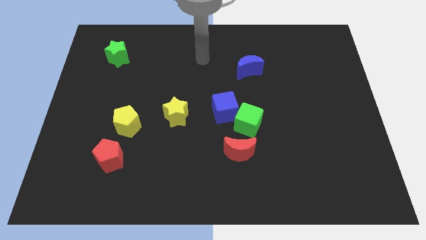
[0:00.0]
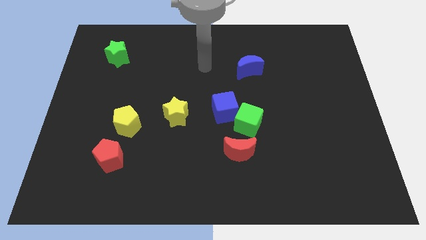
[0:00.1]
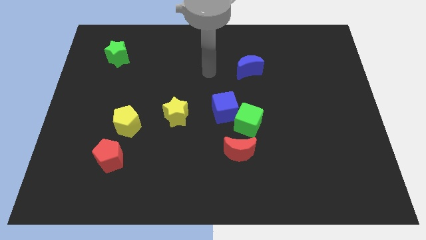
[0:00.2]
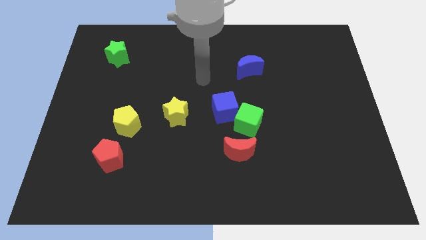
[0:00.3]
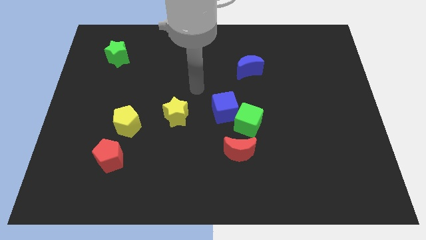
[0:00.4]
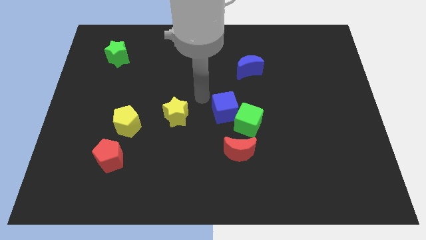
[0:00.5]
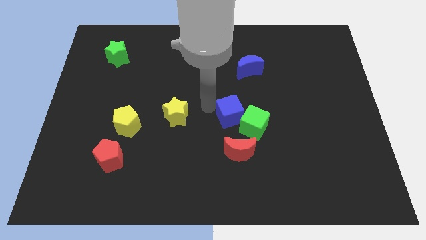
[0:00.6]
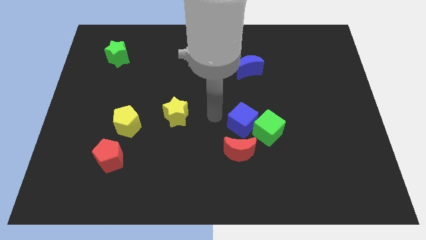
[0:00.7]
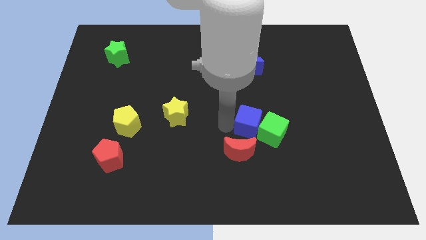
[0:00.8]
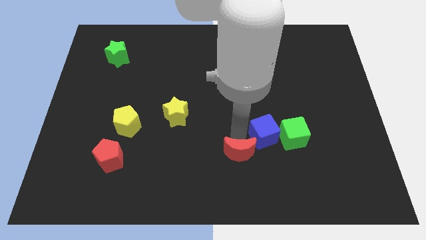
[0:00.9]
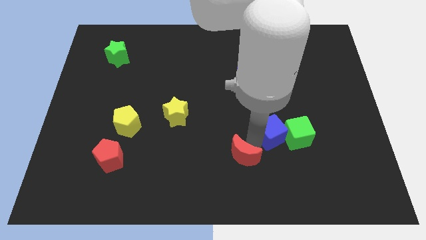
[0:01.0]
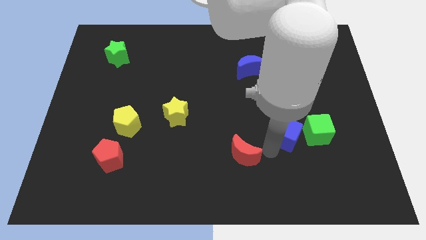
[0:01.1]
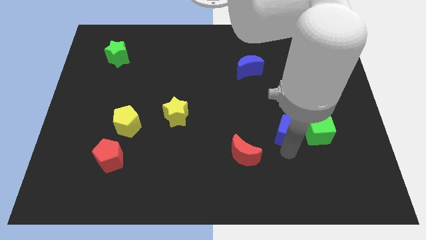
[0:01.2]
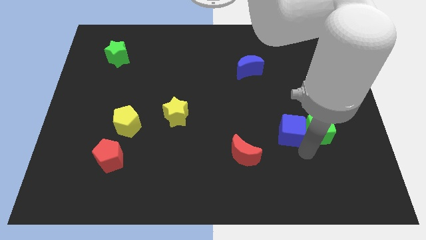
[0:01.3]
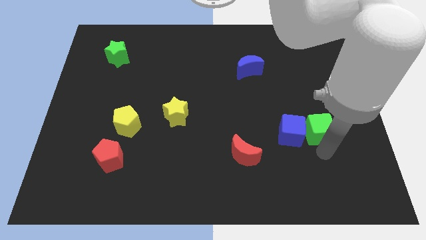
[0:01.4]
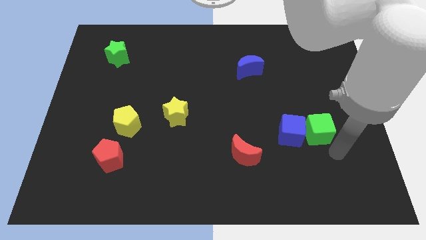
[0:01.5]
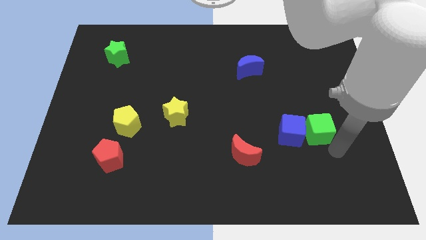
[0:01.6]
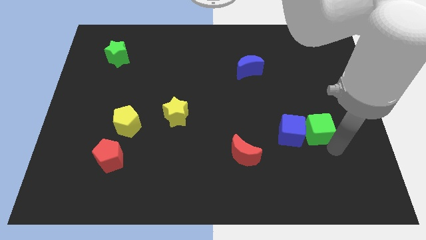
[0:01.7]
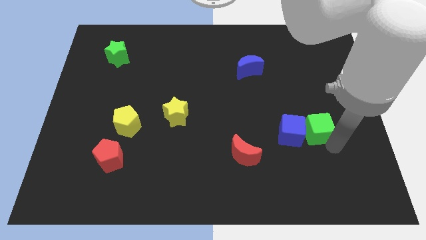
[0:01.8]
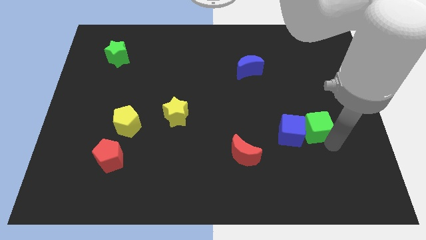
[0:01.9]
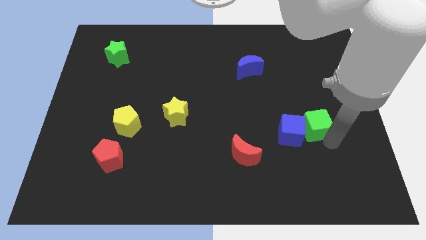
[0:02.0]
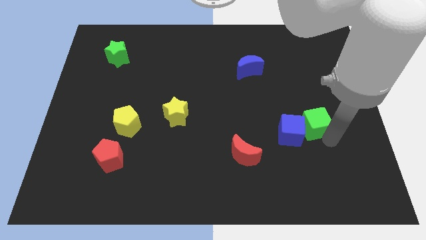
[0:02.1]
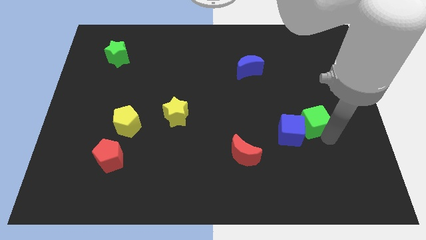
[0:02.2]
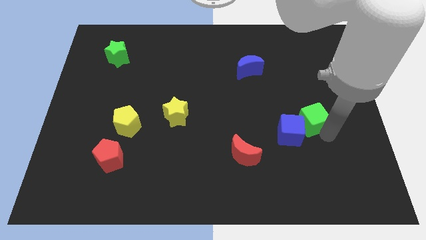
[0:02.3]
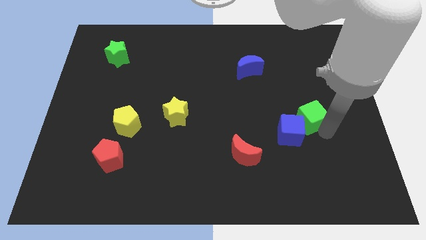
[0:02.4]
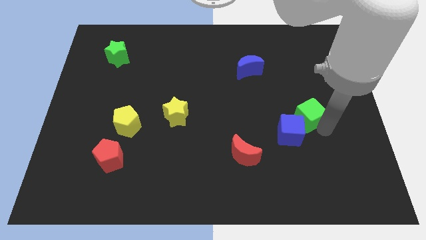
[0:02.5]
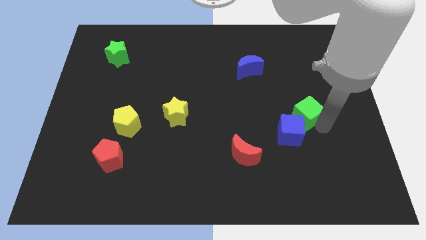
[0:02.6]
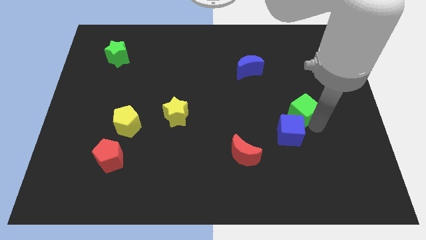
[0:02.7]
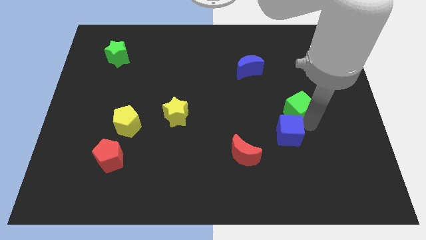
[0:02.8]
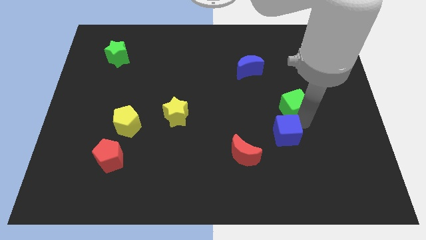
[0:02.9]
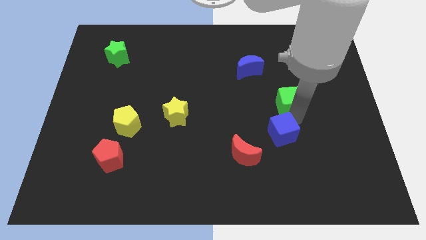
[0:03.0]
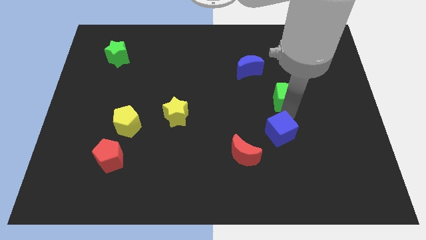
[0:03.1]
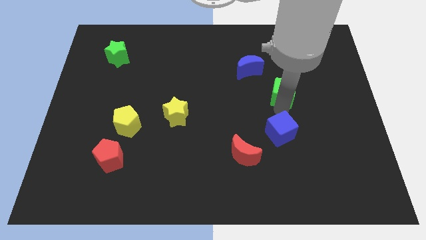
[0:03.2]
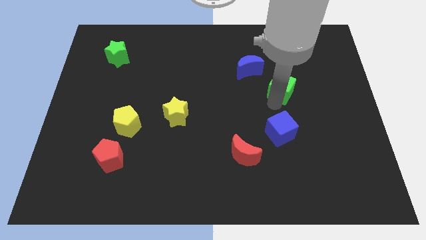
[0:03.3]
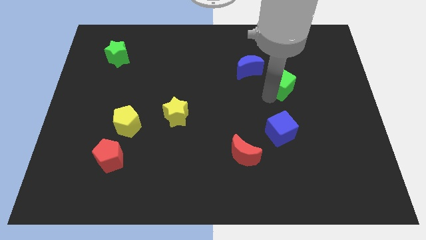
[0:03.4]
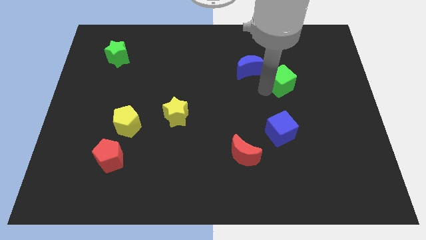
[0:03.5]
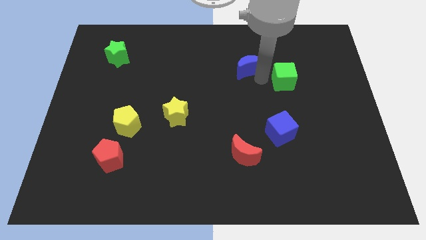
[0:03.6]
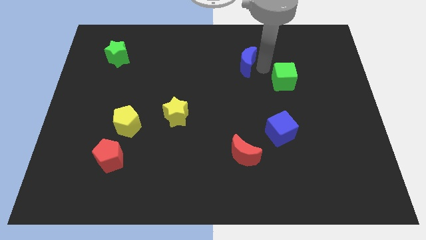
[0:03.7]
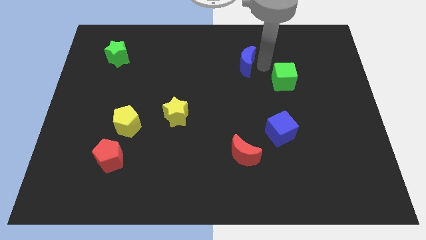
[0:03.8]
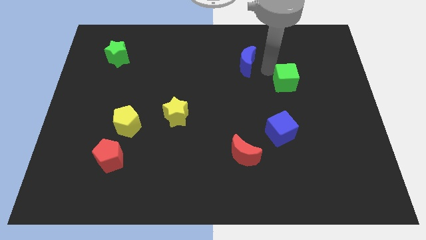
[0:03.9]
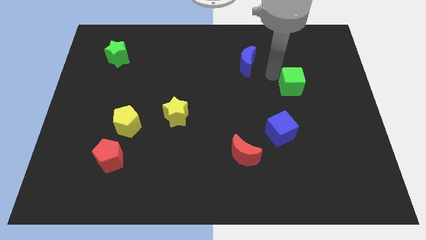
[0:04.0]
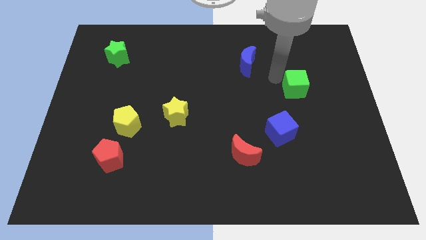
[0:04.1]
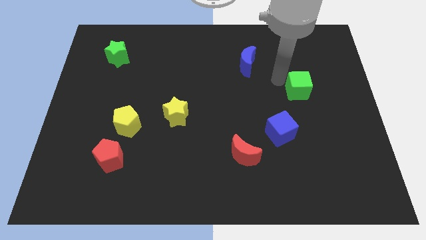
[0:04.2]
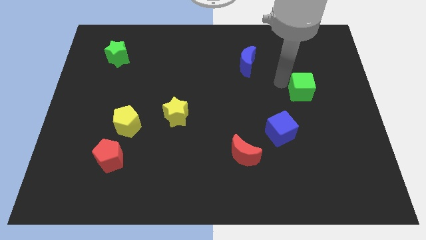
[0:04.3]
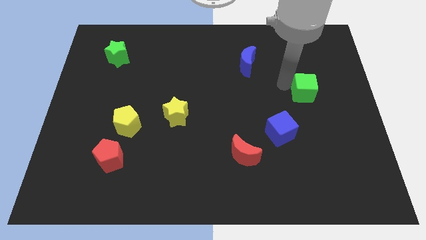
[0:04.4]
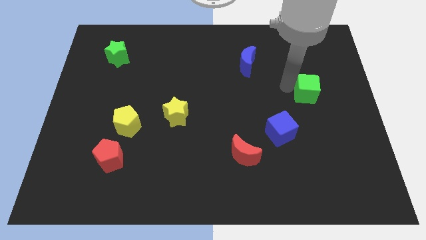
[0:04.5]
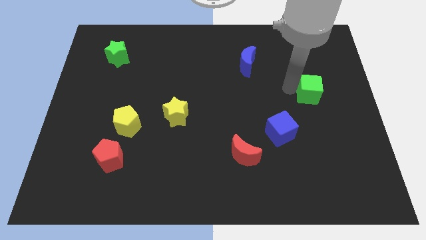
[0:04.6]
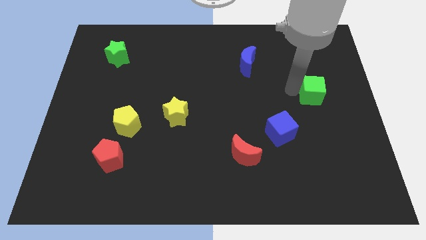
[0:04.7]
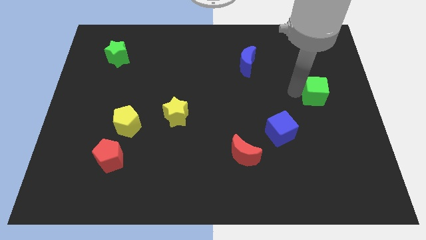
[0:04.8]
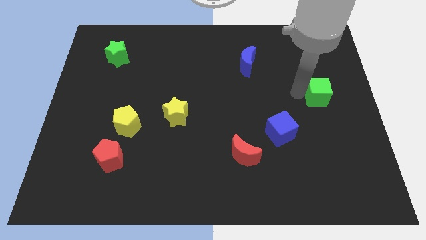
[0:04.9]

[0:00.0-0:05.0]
move the green cube to the center right

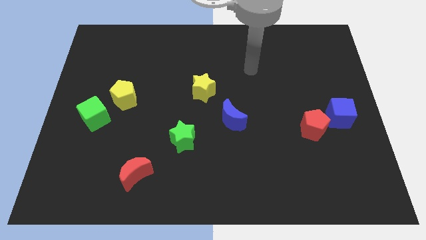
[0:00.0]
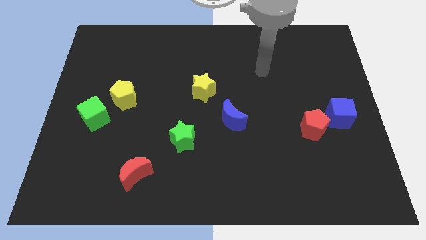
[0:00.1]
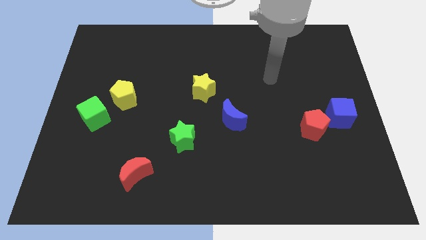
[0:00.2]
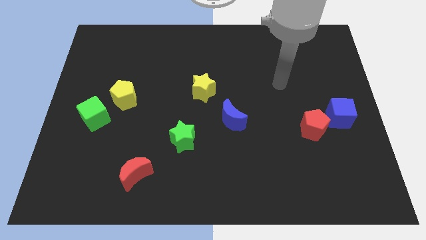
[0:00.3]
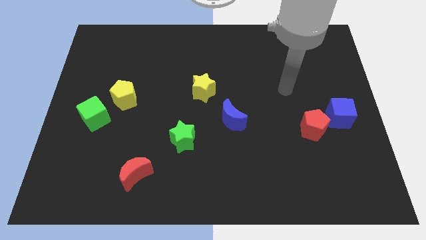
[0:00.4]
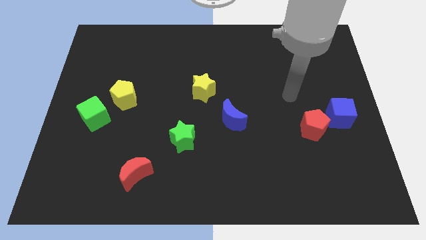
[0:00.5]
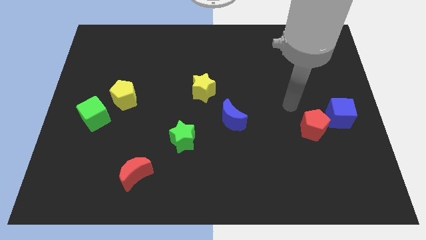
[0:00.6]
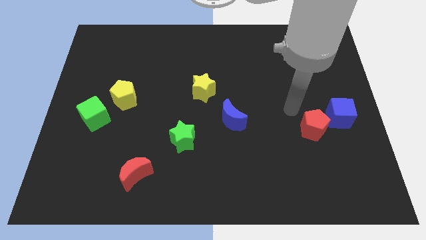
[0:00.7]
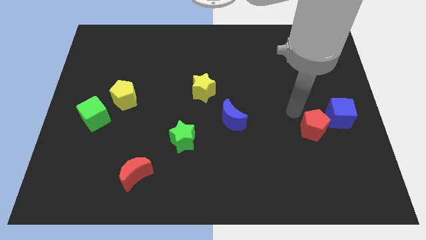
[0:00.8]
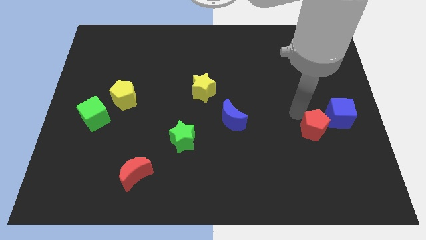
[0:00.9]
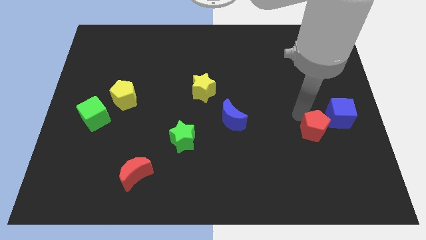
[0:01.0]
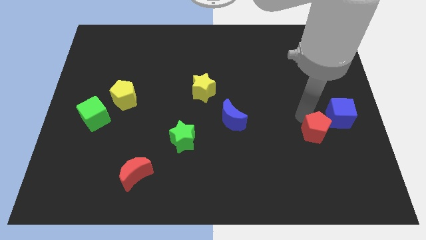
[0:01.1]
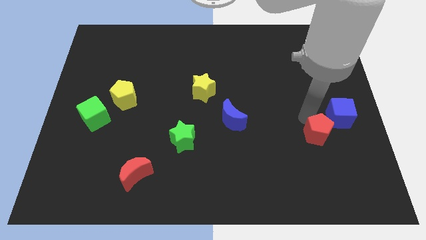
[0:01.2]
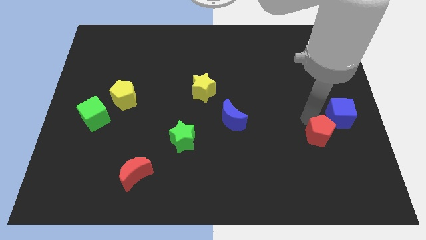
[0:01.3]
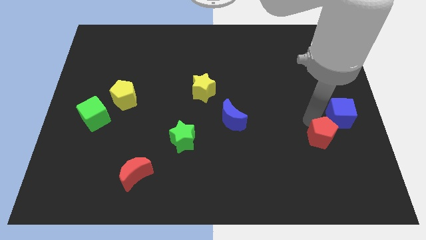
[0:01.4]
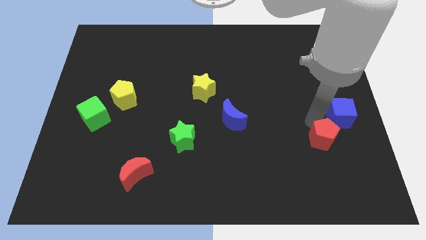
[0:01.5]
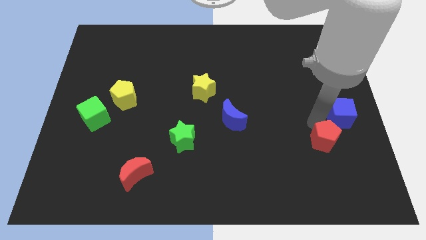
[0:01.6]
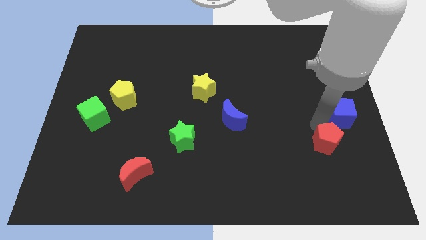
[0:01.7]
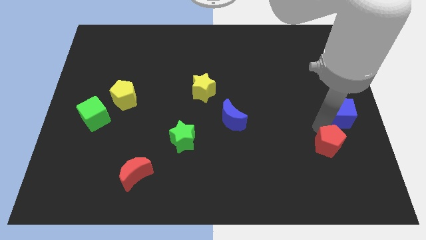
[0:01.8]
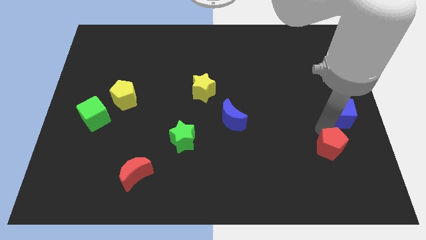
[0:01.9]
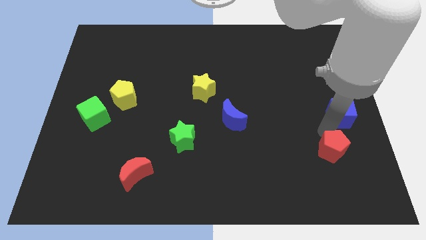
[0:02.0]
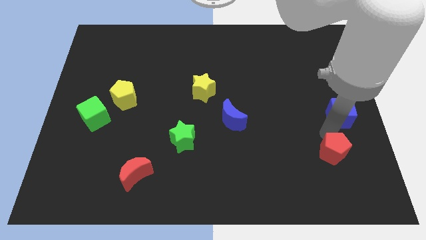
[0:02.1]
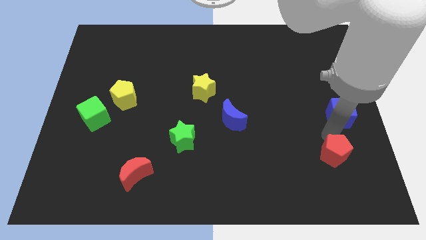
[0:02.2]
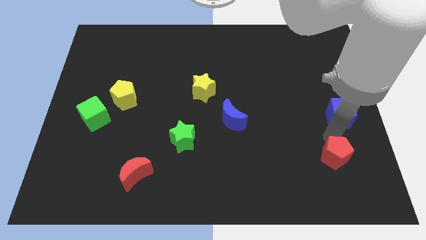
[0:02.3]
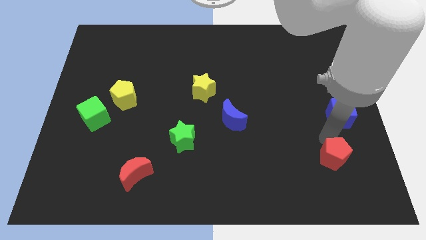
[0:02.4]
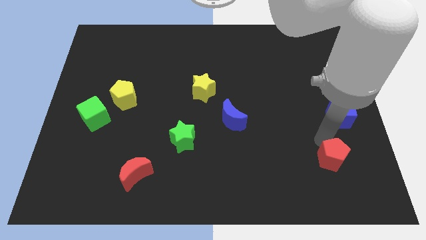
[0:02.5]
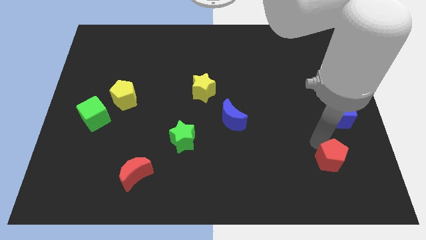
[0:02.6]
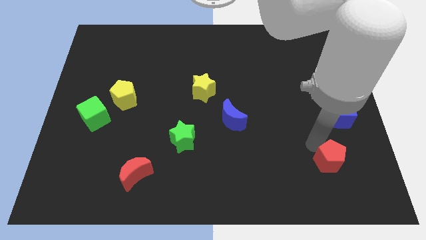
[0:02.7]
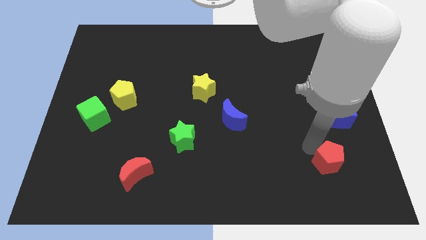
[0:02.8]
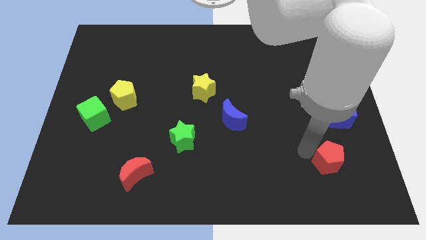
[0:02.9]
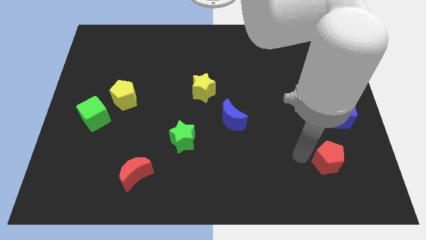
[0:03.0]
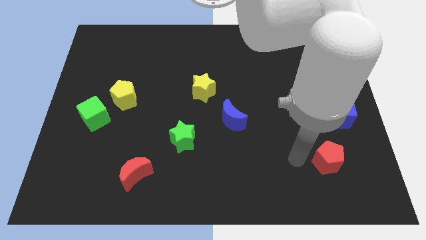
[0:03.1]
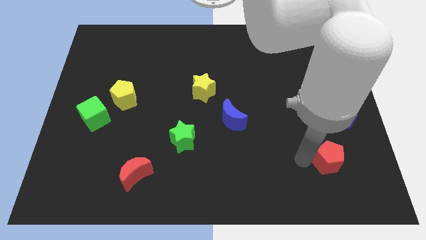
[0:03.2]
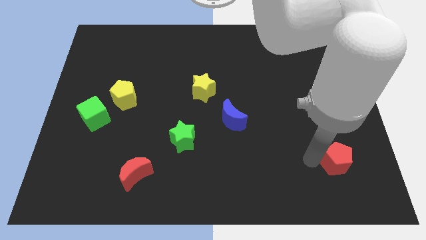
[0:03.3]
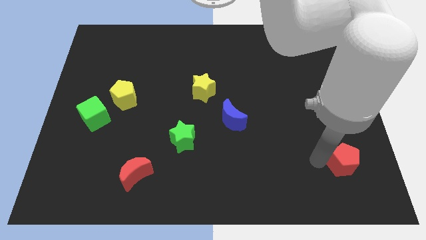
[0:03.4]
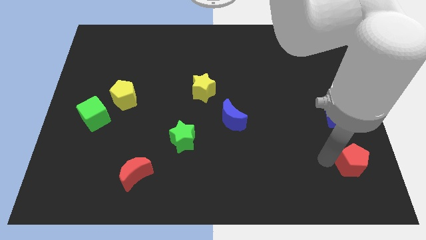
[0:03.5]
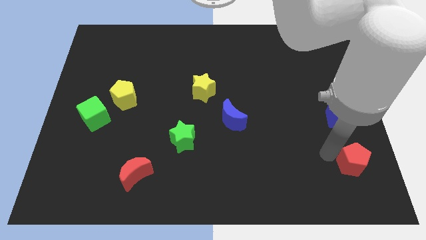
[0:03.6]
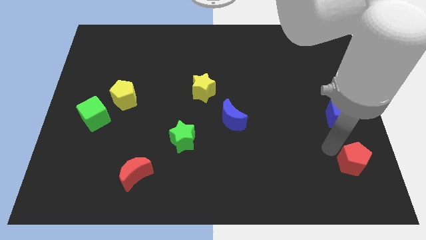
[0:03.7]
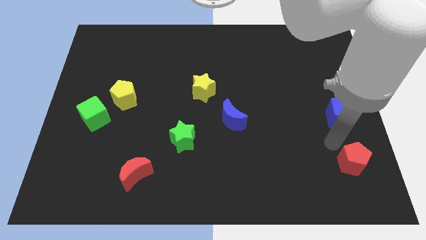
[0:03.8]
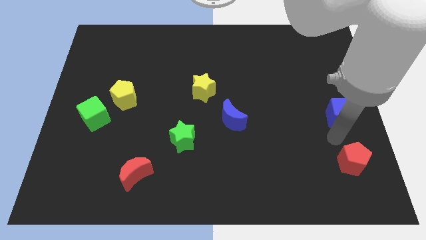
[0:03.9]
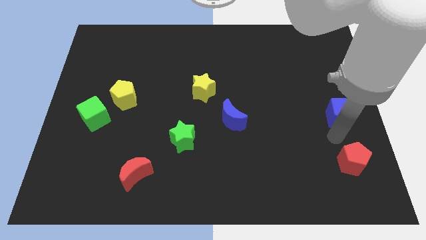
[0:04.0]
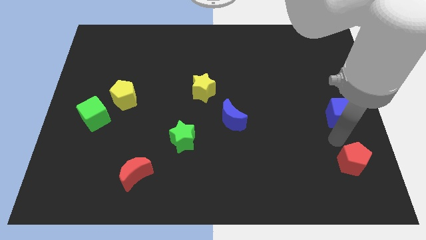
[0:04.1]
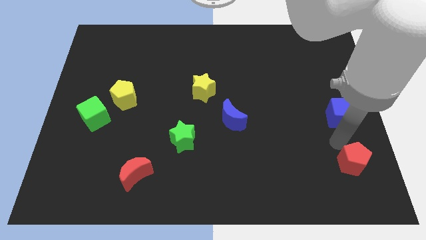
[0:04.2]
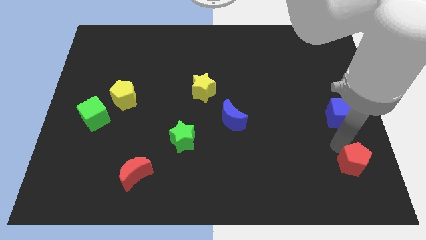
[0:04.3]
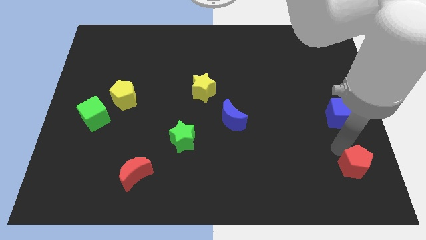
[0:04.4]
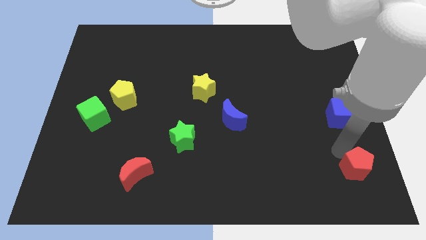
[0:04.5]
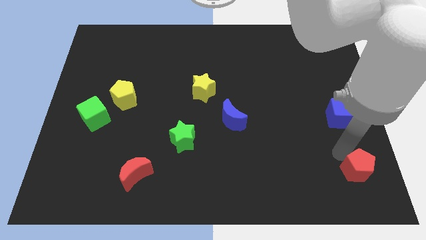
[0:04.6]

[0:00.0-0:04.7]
put the red pentagon to the bottom right of the board
